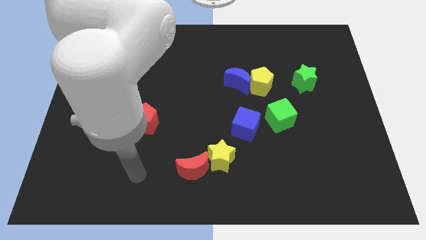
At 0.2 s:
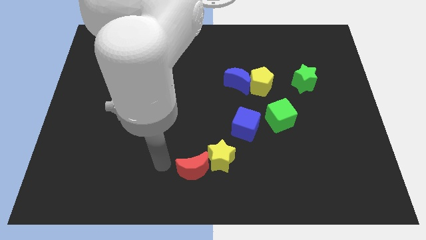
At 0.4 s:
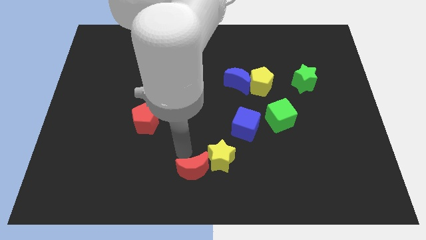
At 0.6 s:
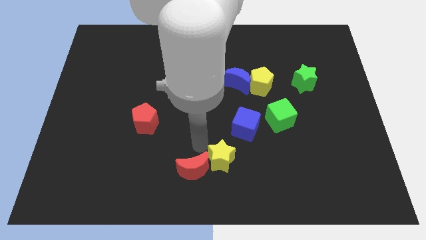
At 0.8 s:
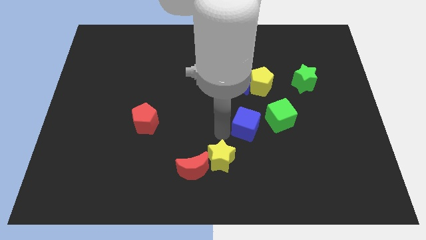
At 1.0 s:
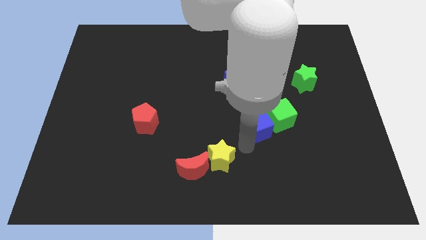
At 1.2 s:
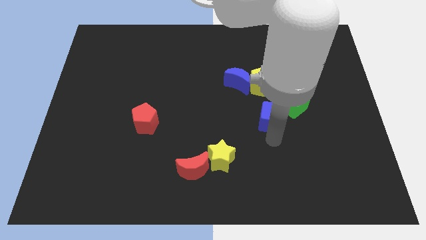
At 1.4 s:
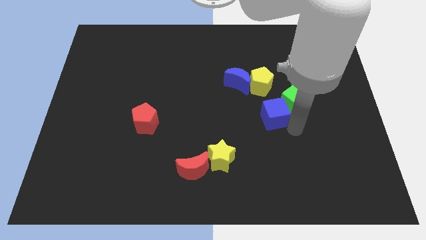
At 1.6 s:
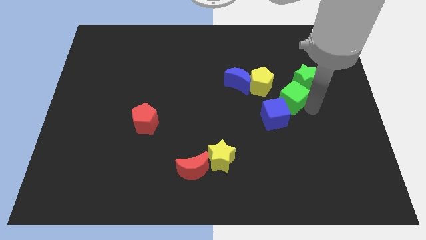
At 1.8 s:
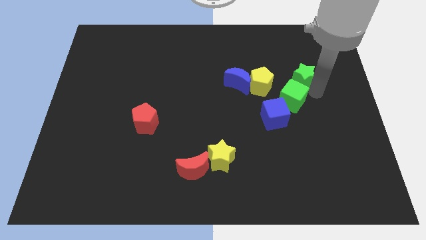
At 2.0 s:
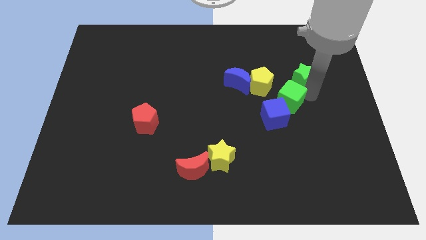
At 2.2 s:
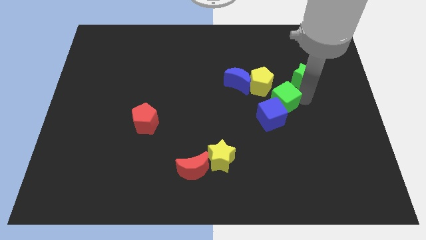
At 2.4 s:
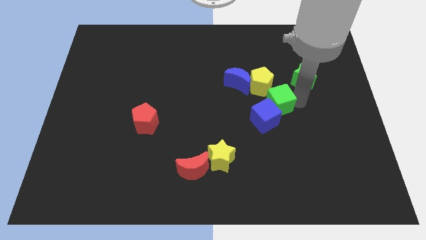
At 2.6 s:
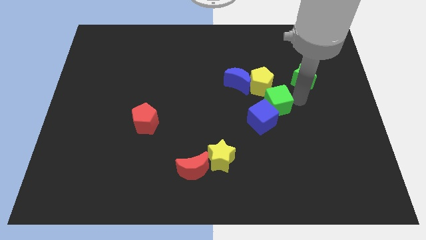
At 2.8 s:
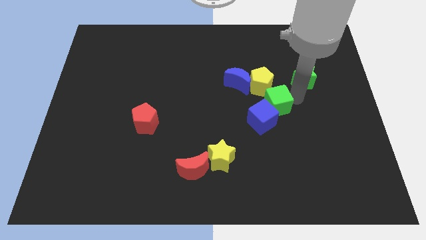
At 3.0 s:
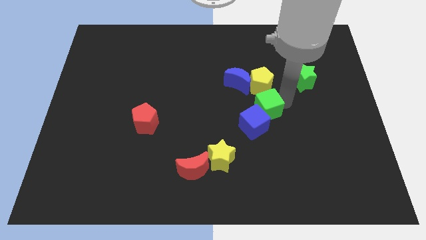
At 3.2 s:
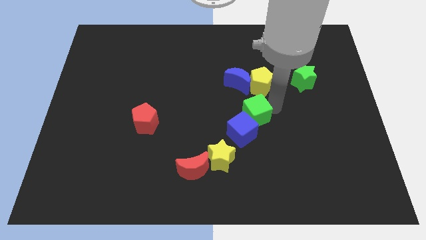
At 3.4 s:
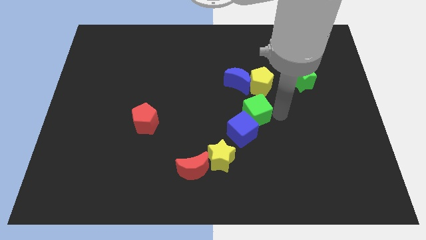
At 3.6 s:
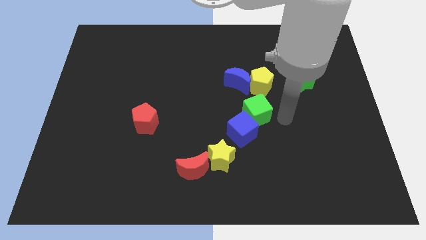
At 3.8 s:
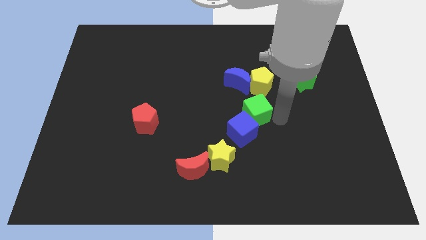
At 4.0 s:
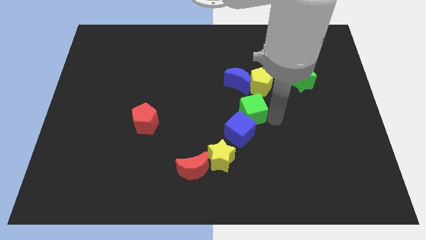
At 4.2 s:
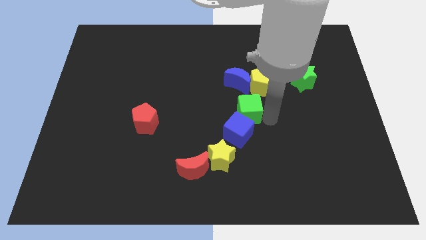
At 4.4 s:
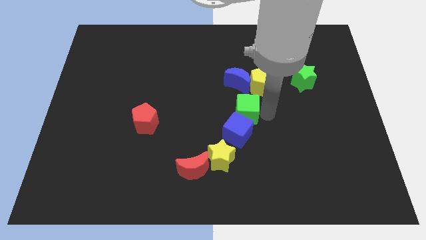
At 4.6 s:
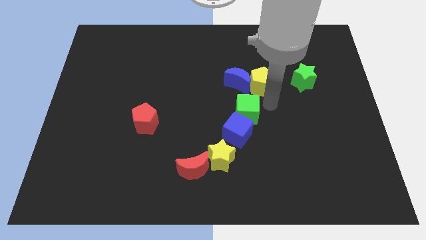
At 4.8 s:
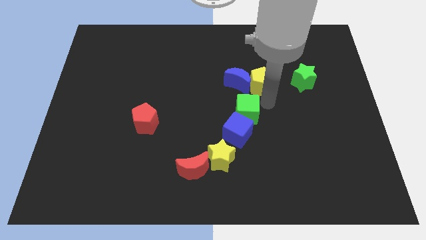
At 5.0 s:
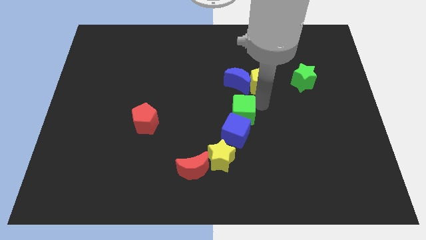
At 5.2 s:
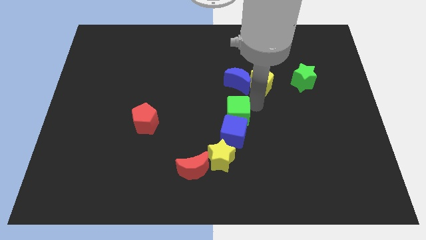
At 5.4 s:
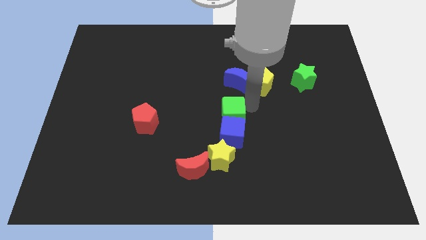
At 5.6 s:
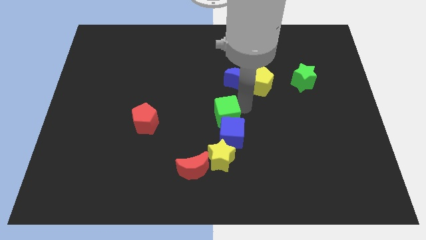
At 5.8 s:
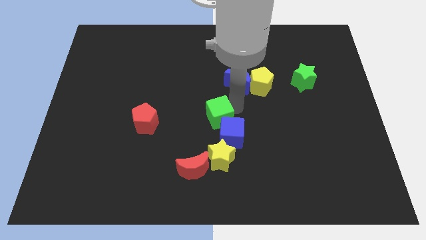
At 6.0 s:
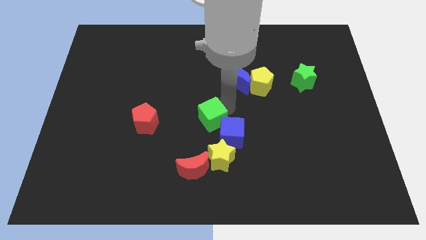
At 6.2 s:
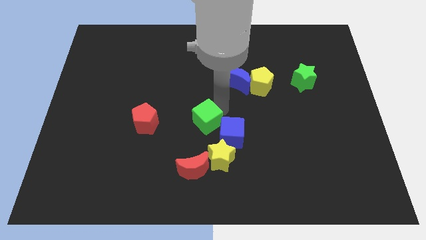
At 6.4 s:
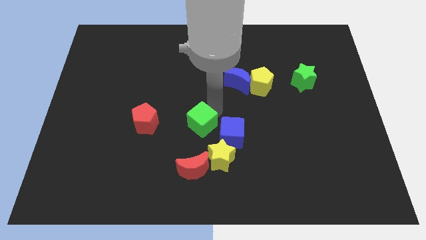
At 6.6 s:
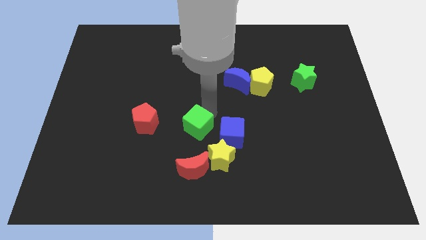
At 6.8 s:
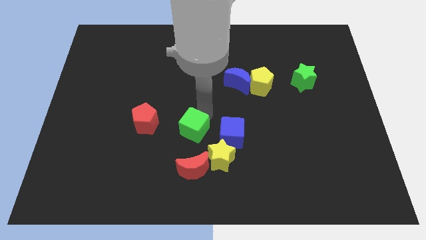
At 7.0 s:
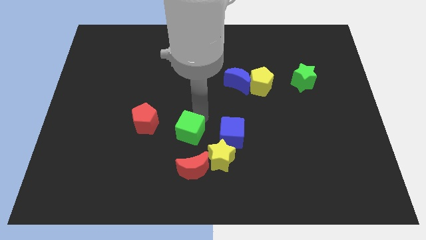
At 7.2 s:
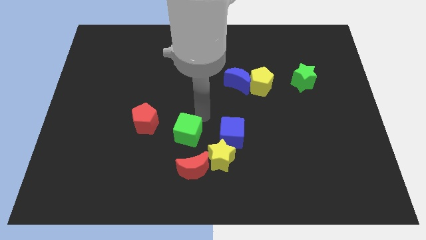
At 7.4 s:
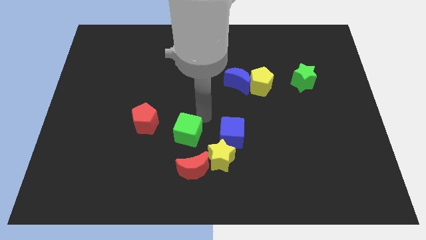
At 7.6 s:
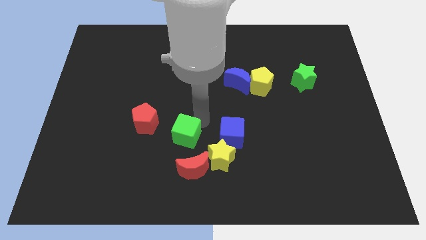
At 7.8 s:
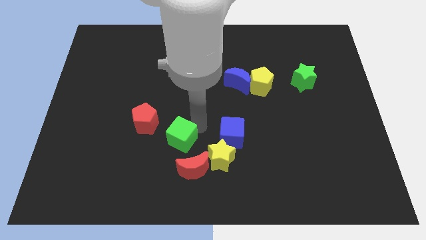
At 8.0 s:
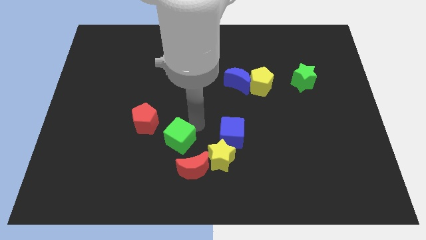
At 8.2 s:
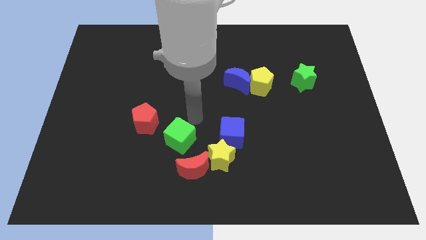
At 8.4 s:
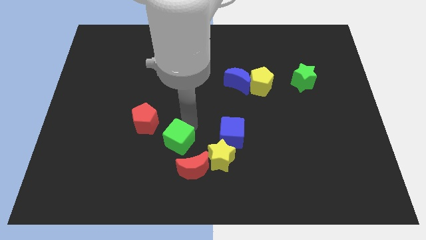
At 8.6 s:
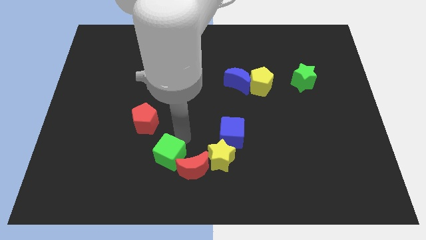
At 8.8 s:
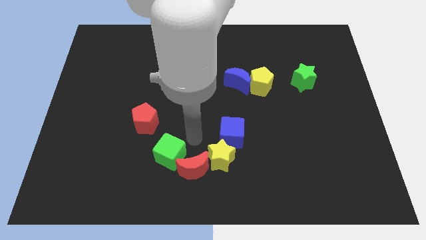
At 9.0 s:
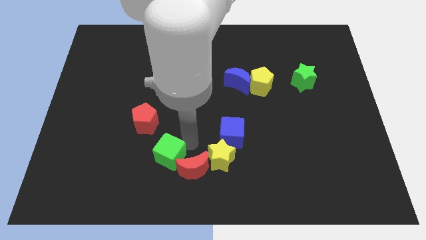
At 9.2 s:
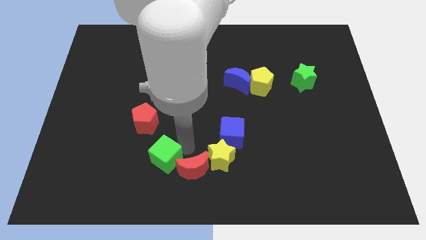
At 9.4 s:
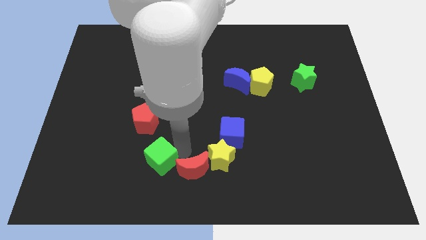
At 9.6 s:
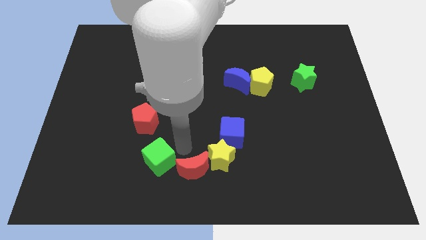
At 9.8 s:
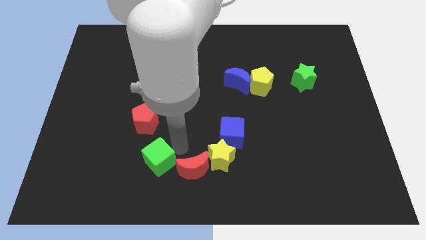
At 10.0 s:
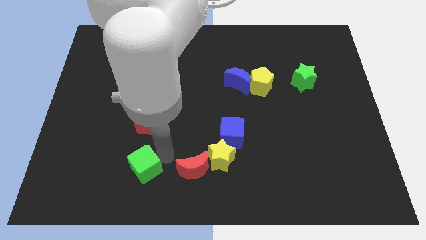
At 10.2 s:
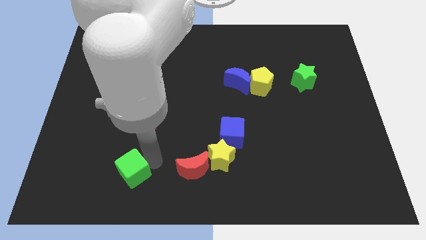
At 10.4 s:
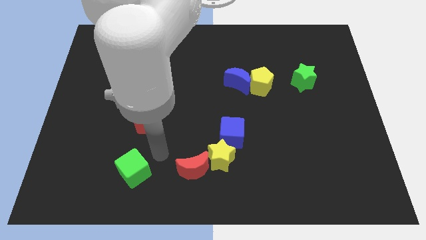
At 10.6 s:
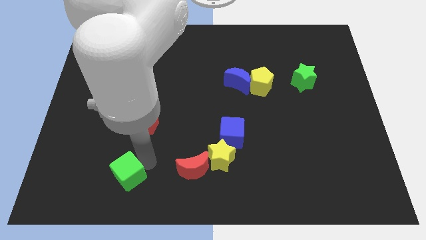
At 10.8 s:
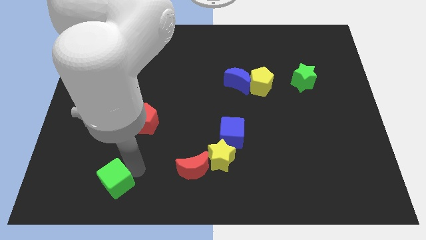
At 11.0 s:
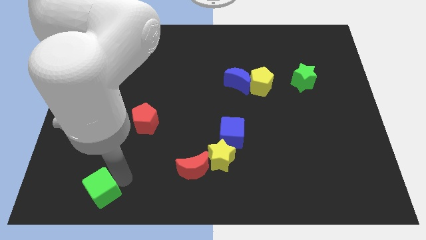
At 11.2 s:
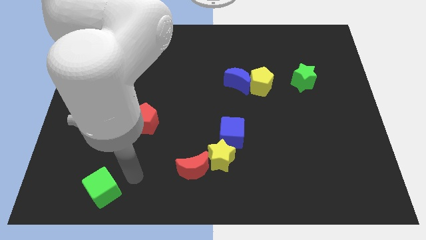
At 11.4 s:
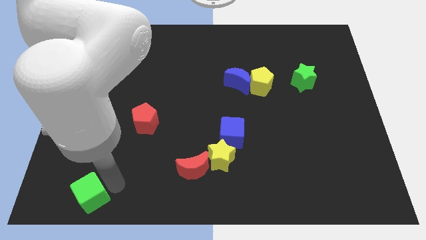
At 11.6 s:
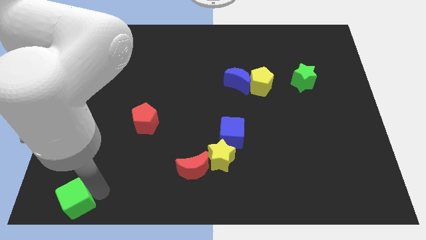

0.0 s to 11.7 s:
slide the green cube to the bottom left corner
